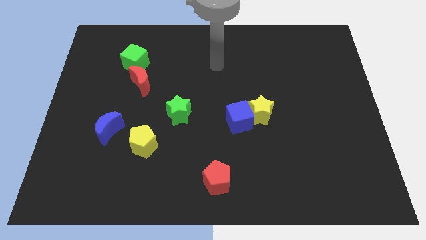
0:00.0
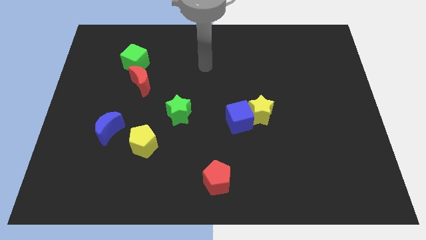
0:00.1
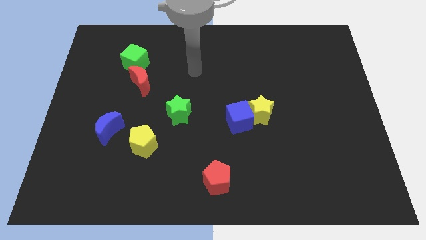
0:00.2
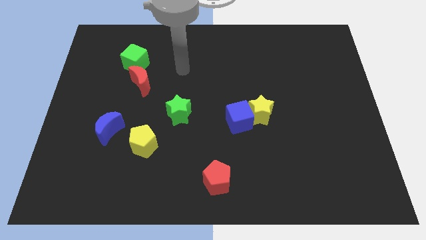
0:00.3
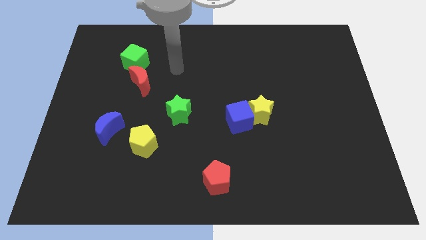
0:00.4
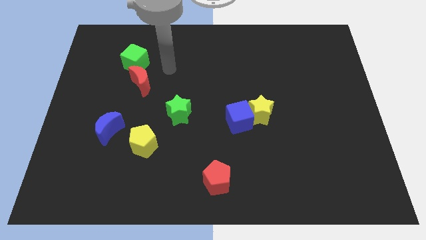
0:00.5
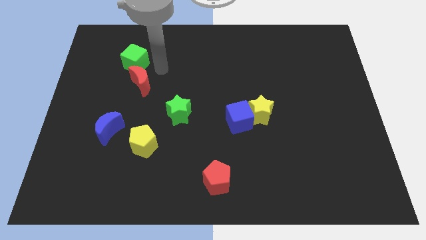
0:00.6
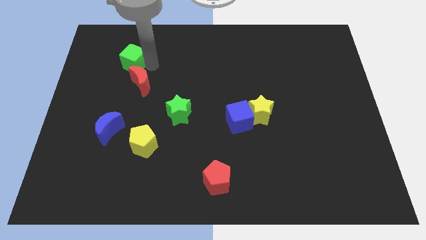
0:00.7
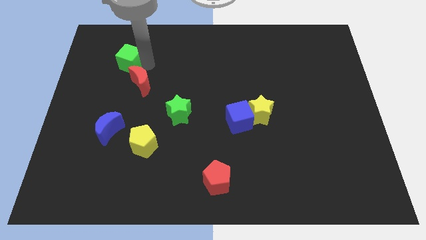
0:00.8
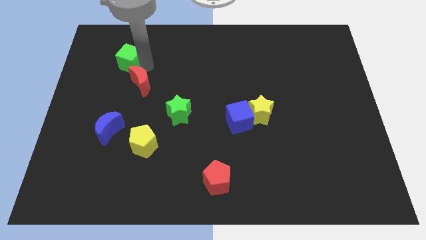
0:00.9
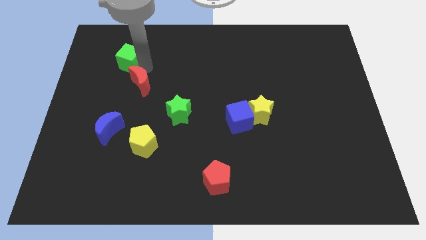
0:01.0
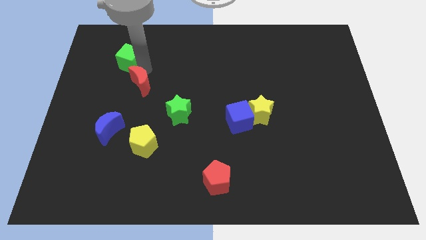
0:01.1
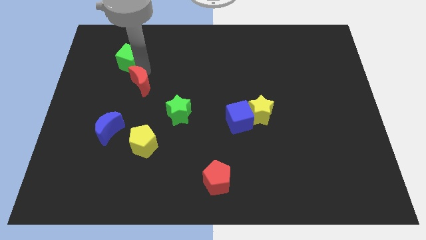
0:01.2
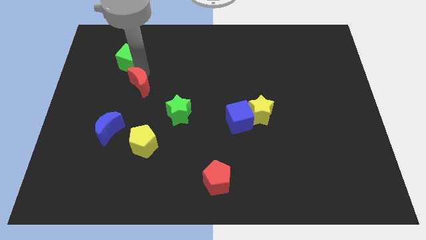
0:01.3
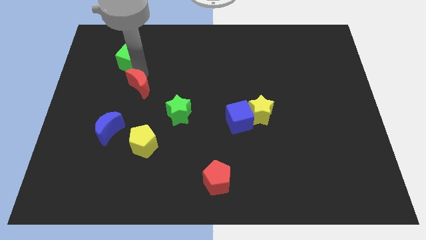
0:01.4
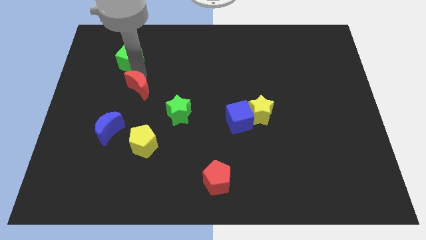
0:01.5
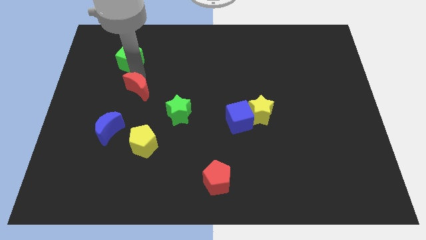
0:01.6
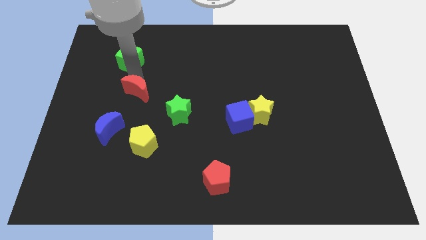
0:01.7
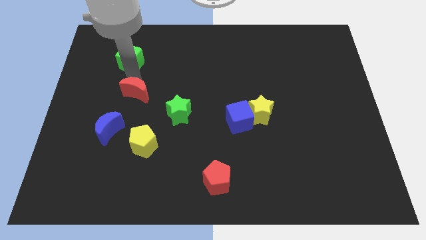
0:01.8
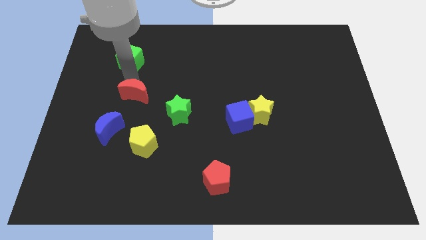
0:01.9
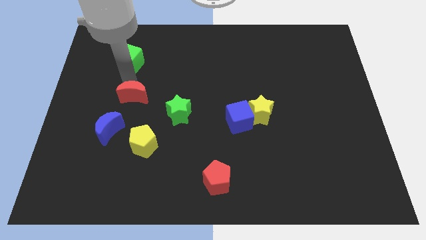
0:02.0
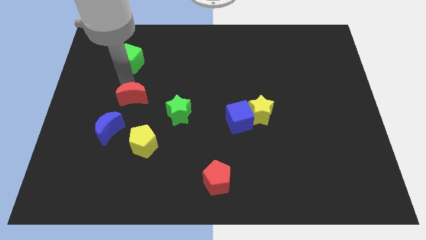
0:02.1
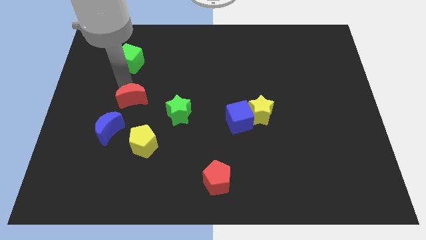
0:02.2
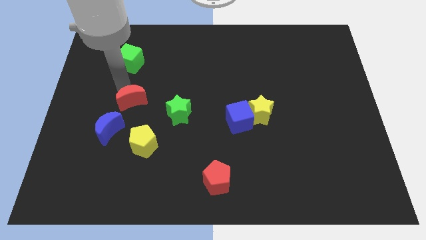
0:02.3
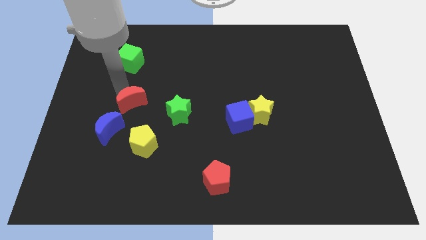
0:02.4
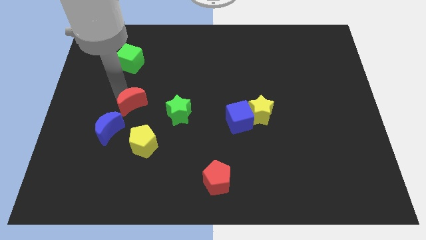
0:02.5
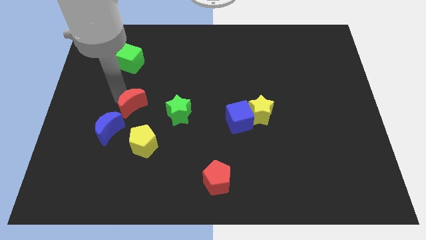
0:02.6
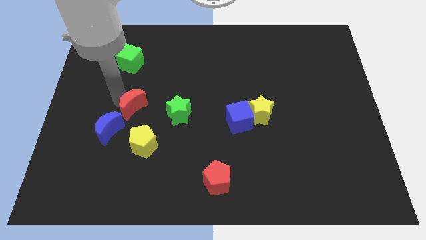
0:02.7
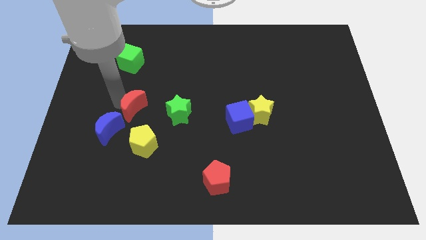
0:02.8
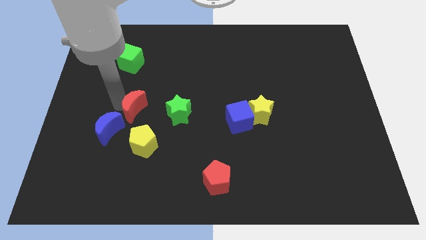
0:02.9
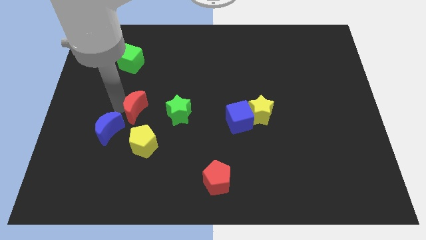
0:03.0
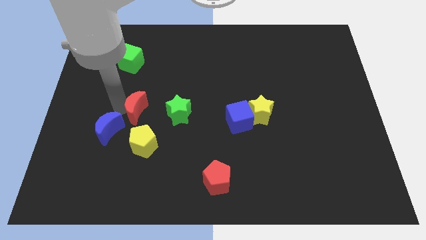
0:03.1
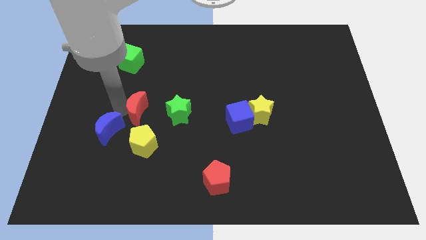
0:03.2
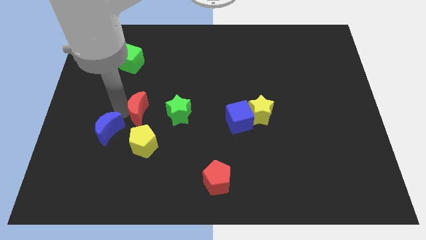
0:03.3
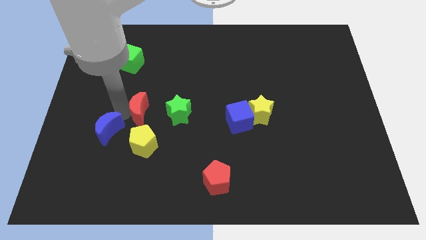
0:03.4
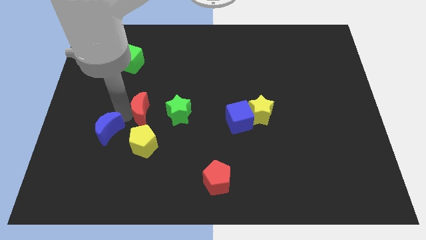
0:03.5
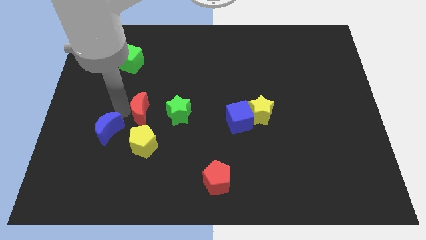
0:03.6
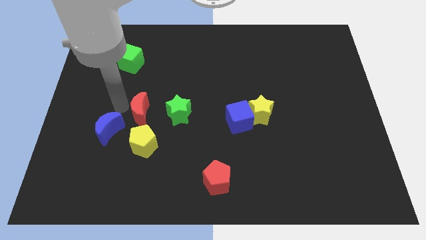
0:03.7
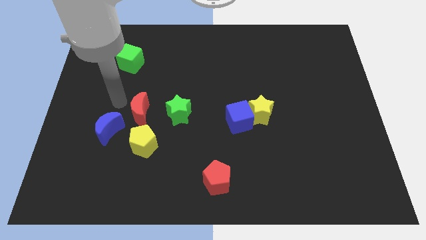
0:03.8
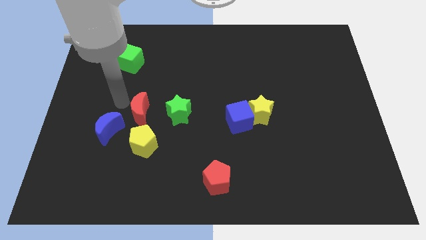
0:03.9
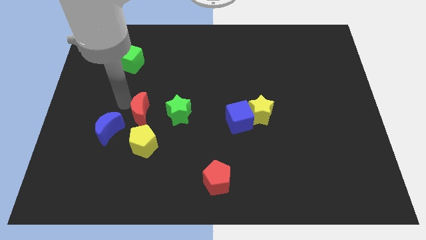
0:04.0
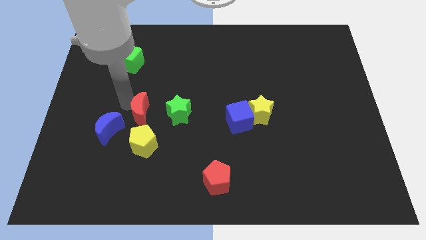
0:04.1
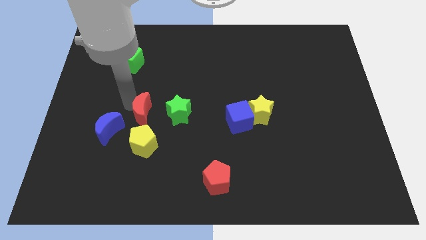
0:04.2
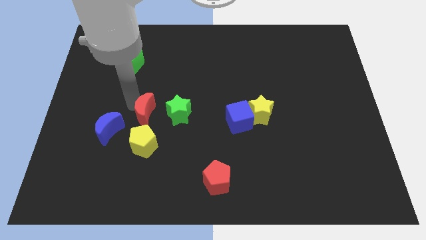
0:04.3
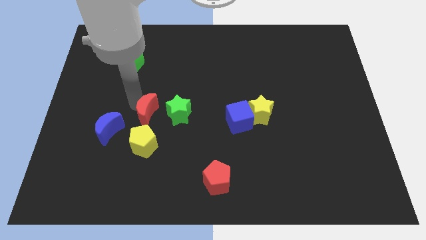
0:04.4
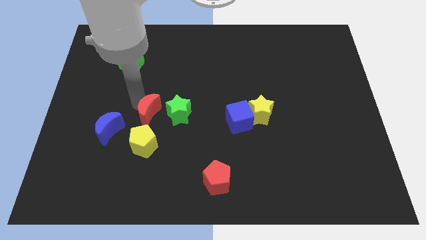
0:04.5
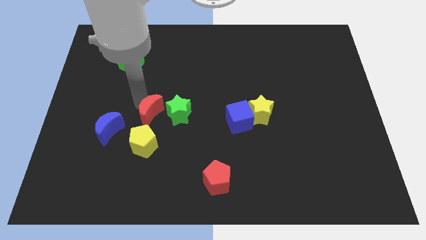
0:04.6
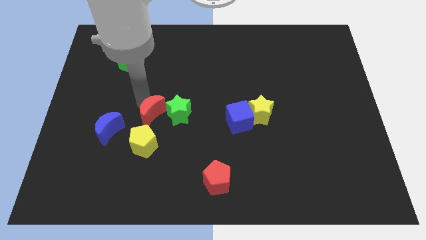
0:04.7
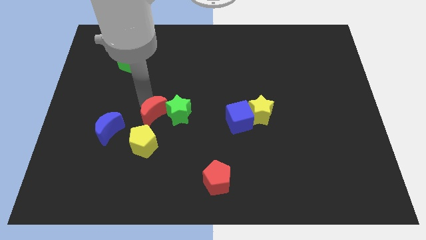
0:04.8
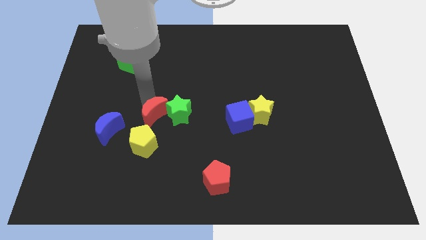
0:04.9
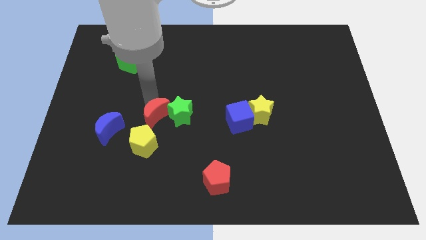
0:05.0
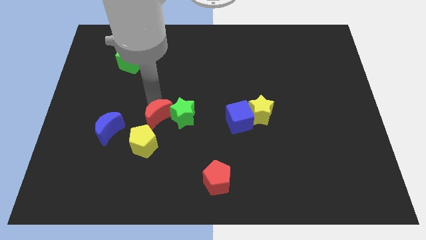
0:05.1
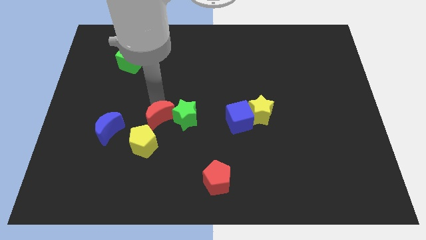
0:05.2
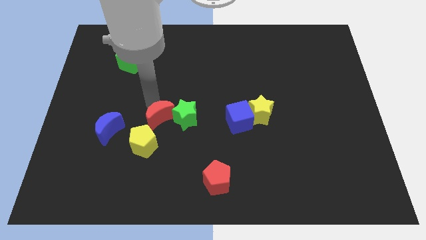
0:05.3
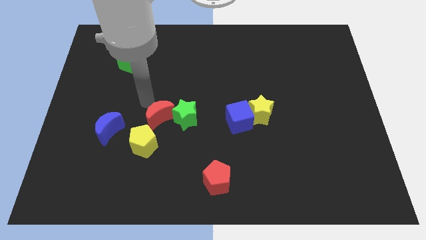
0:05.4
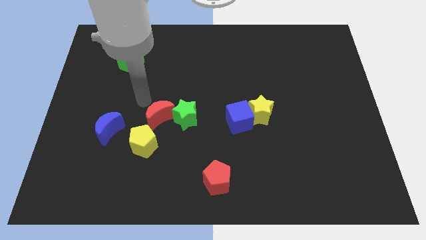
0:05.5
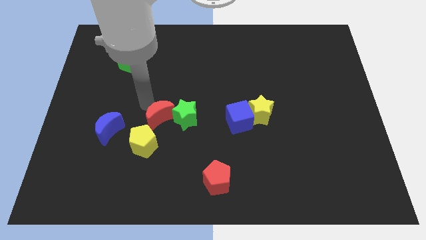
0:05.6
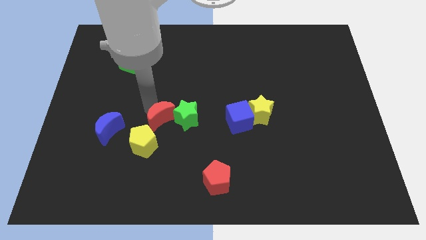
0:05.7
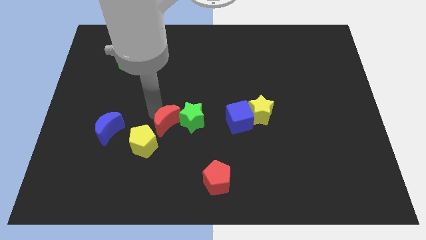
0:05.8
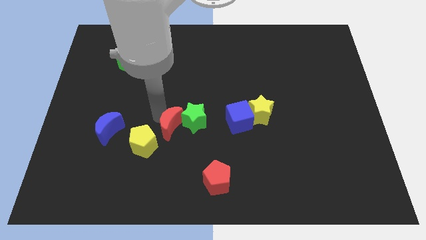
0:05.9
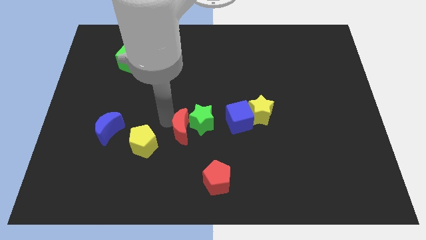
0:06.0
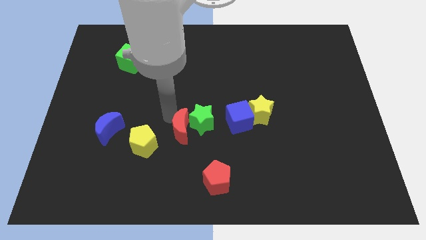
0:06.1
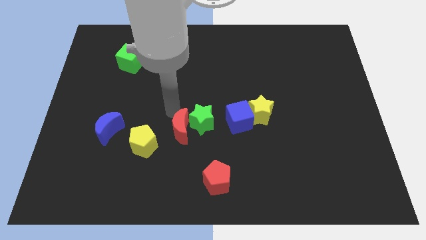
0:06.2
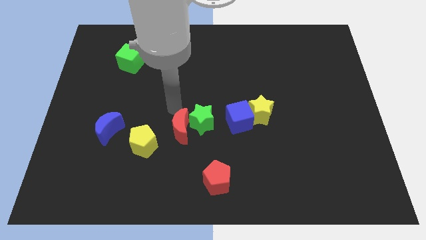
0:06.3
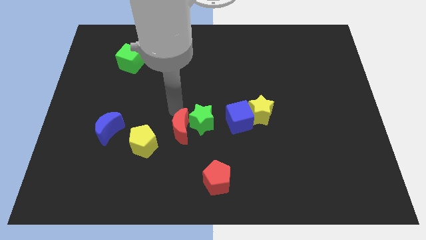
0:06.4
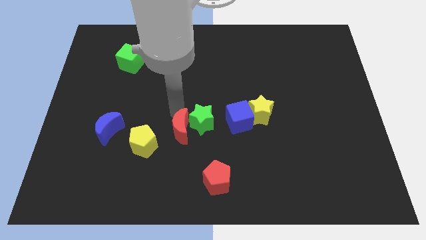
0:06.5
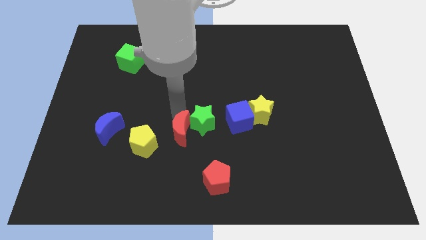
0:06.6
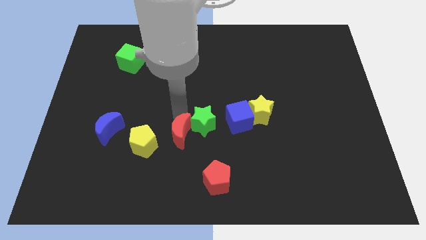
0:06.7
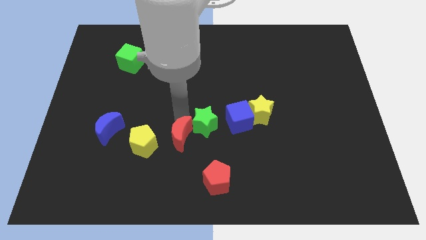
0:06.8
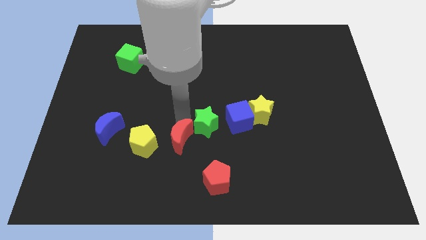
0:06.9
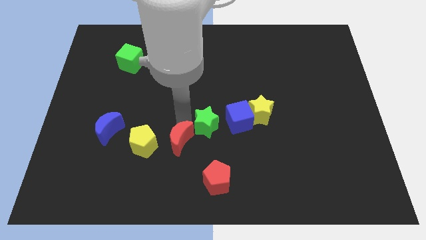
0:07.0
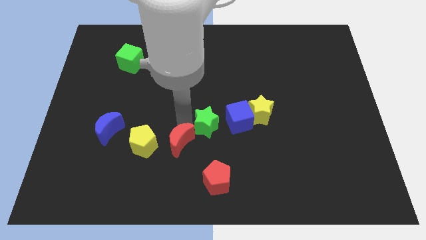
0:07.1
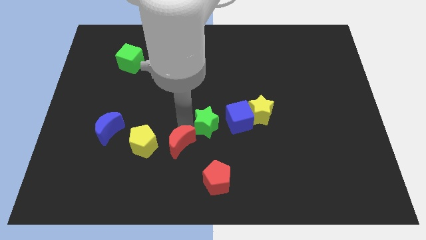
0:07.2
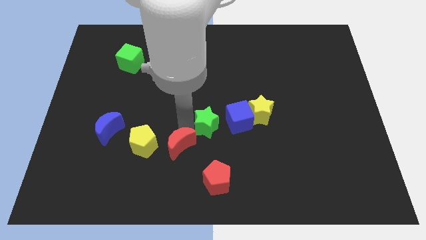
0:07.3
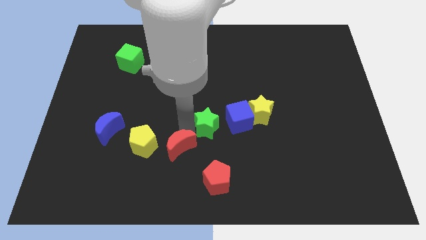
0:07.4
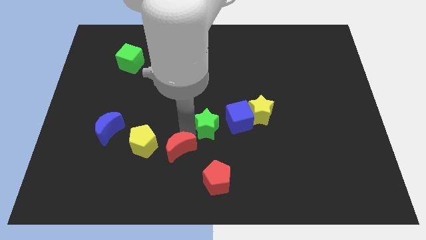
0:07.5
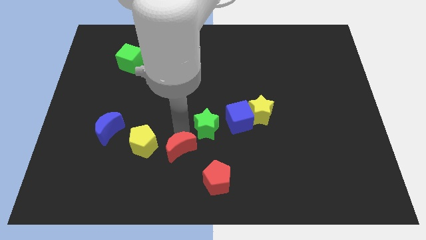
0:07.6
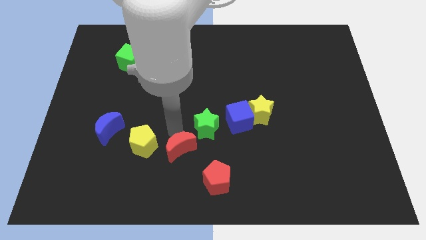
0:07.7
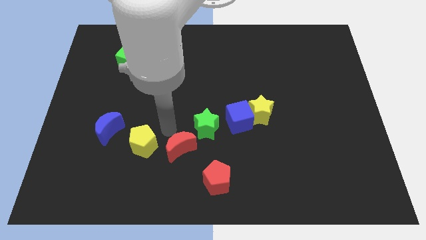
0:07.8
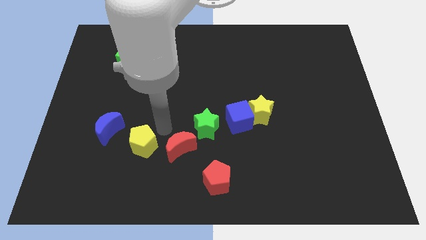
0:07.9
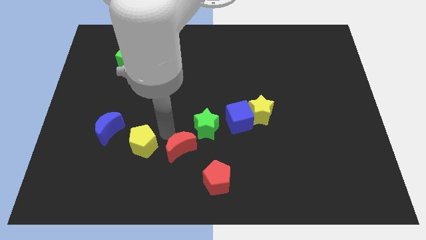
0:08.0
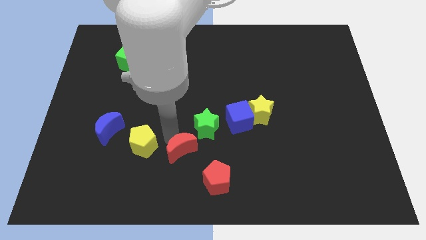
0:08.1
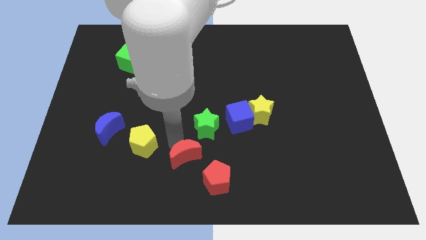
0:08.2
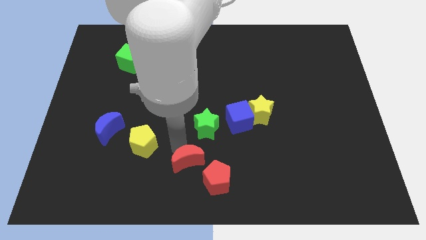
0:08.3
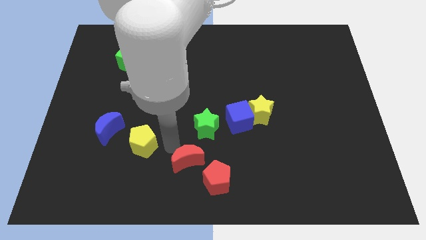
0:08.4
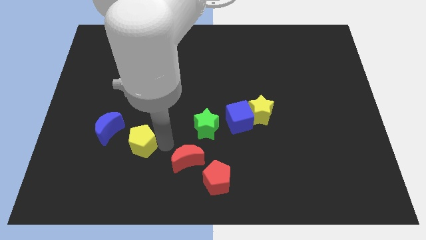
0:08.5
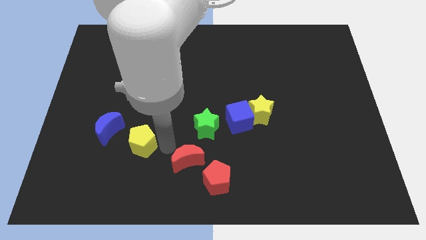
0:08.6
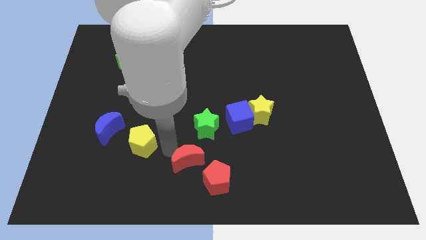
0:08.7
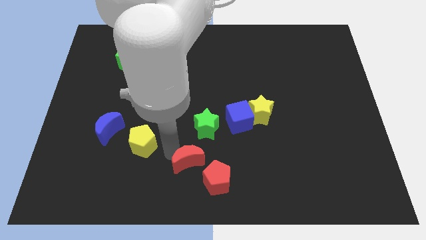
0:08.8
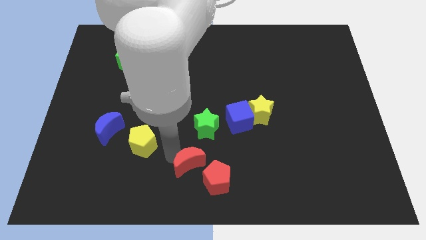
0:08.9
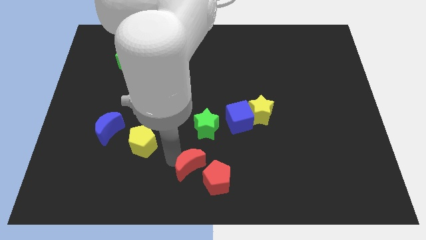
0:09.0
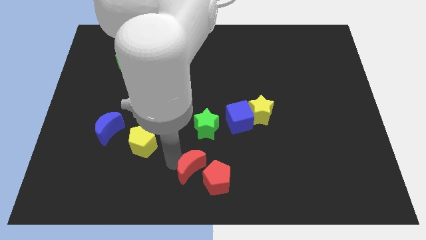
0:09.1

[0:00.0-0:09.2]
push the red moon towards the red pentagon
